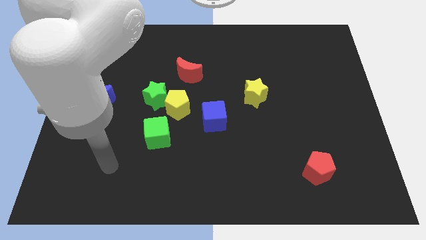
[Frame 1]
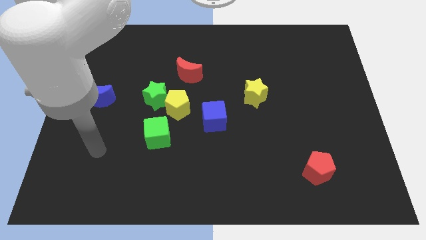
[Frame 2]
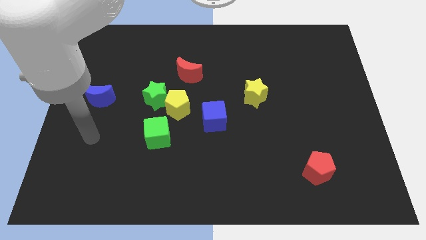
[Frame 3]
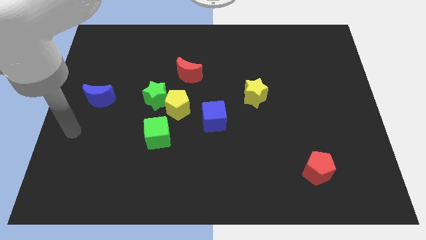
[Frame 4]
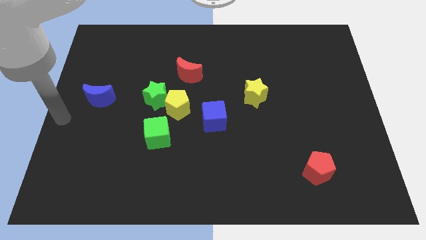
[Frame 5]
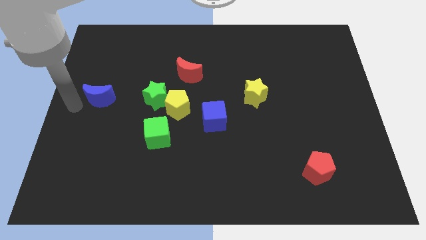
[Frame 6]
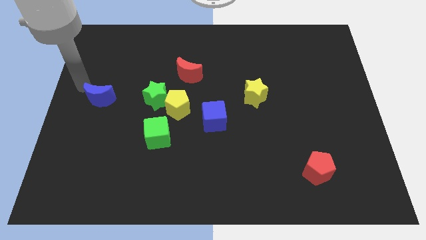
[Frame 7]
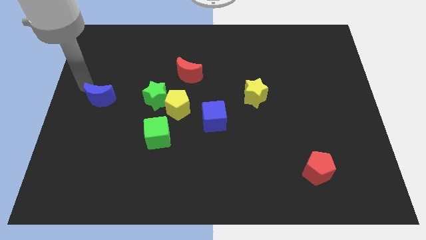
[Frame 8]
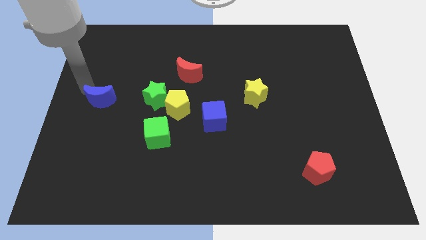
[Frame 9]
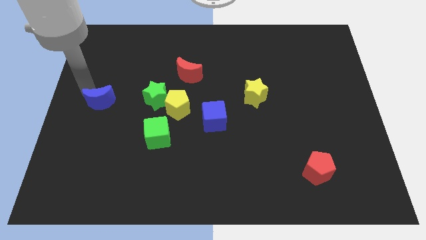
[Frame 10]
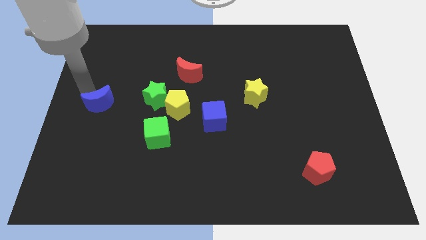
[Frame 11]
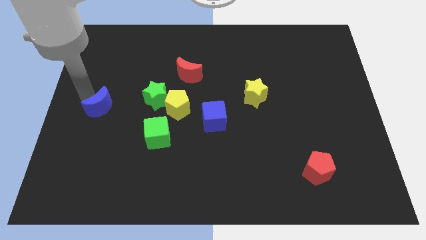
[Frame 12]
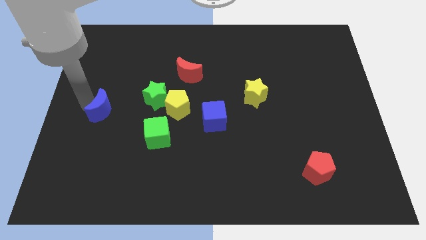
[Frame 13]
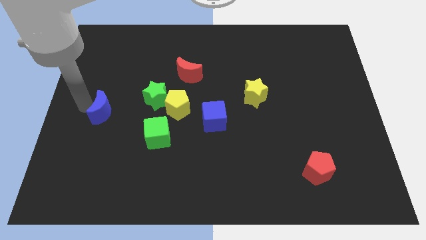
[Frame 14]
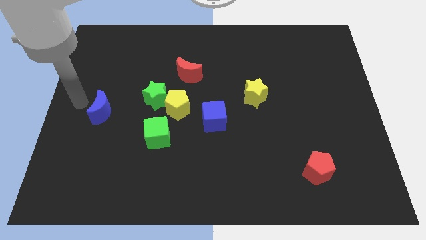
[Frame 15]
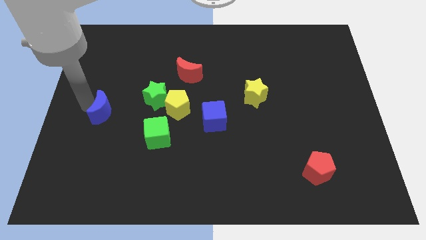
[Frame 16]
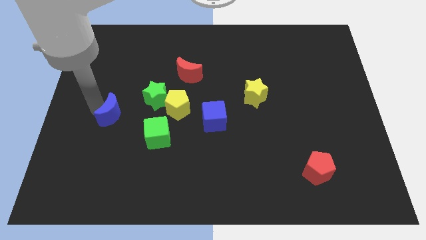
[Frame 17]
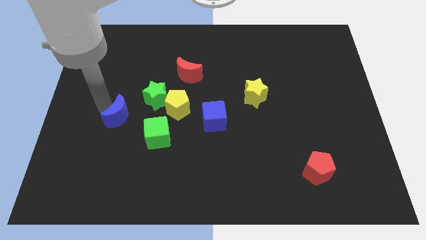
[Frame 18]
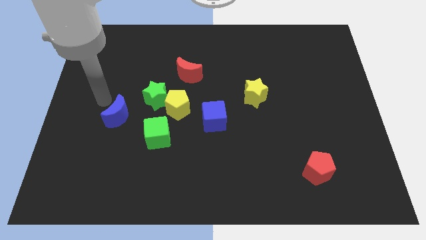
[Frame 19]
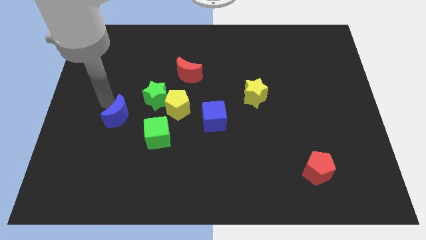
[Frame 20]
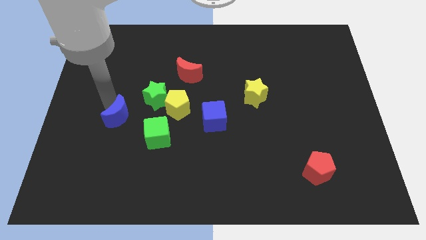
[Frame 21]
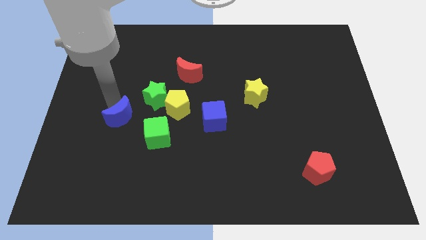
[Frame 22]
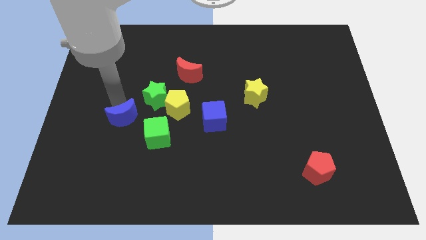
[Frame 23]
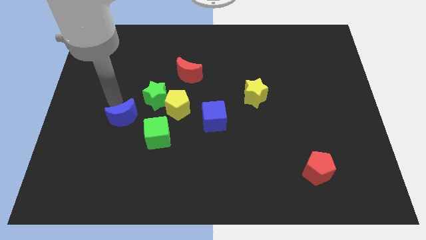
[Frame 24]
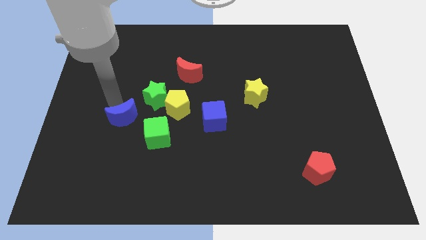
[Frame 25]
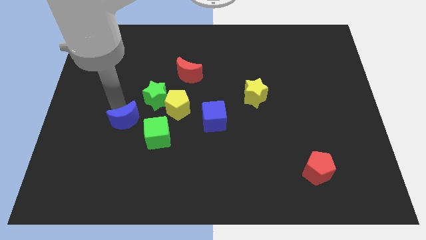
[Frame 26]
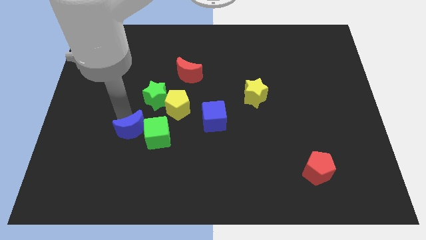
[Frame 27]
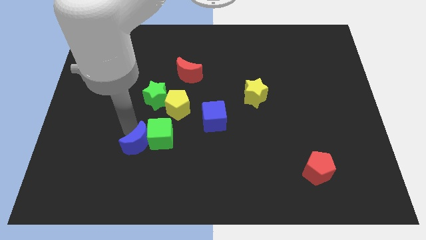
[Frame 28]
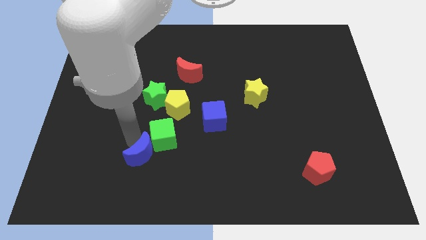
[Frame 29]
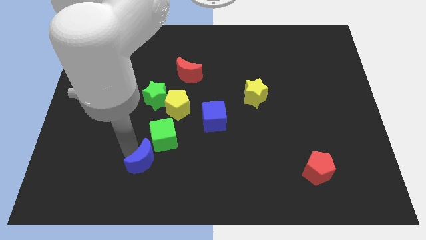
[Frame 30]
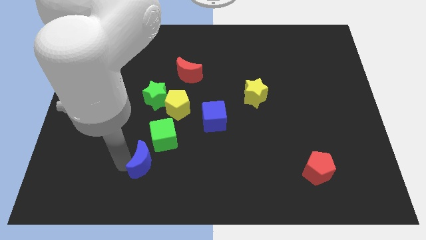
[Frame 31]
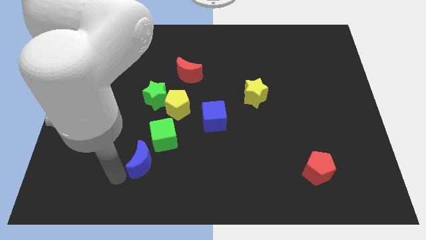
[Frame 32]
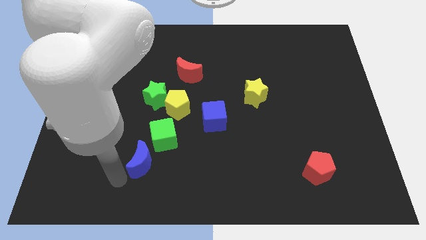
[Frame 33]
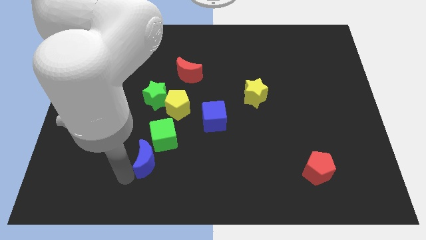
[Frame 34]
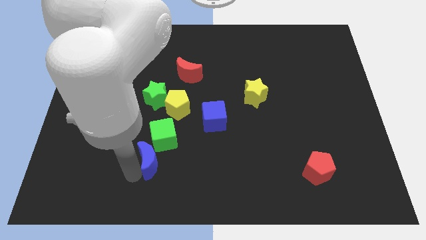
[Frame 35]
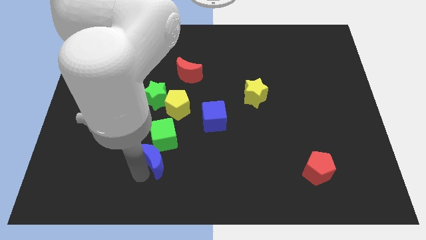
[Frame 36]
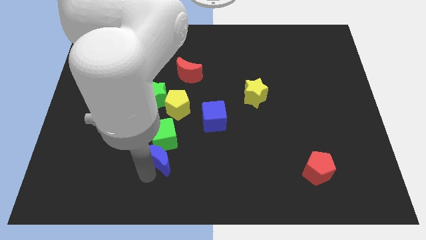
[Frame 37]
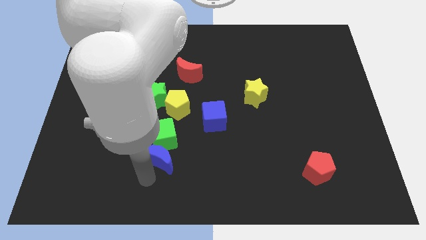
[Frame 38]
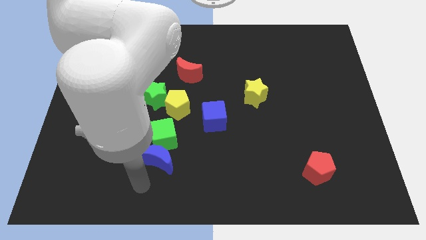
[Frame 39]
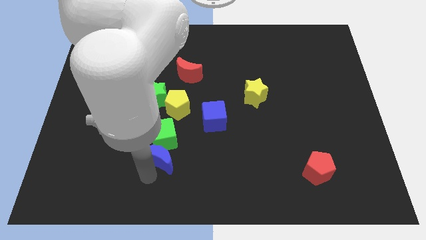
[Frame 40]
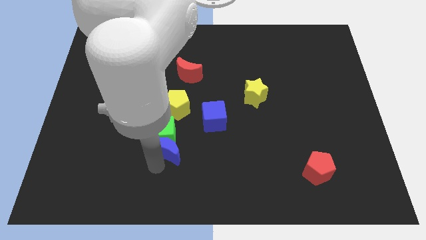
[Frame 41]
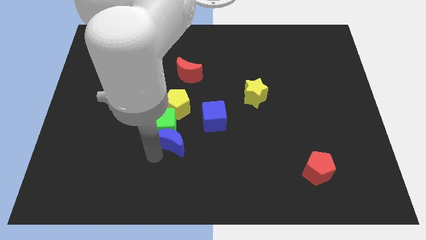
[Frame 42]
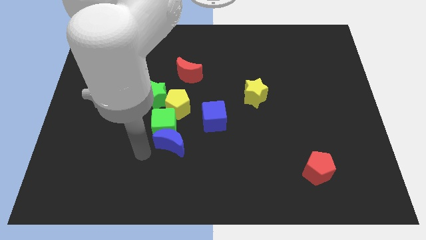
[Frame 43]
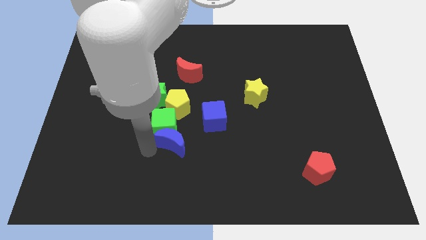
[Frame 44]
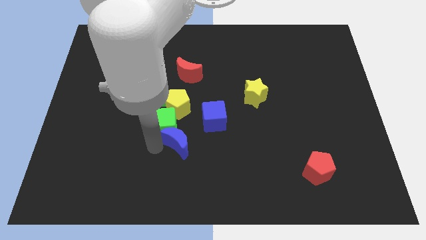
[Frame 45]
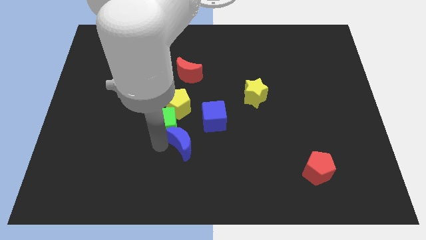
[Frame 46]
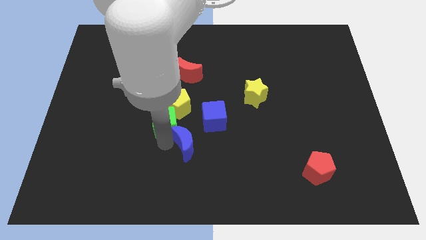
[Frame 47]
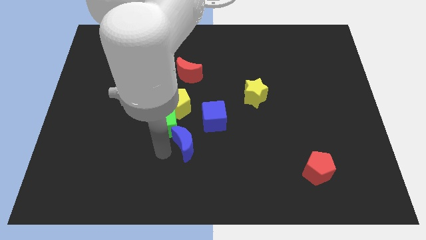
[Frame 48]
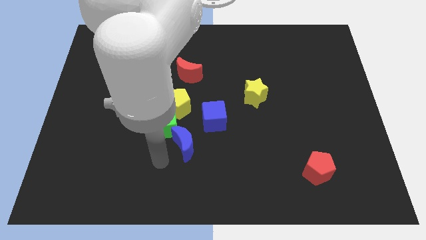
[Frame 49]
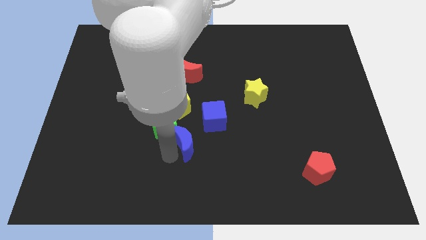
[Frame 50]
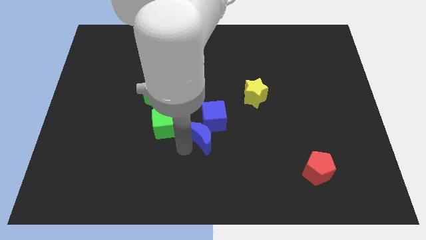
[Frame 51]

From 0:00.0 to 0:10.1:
put the blue moon towards the blue cube

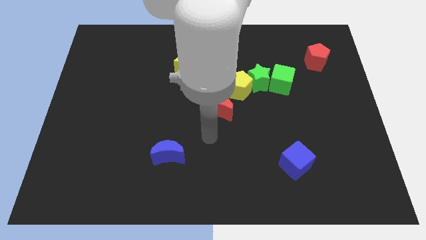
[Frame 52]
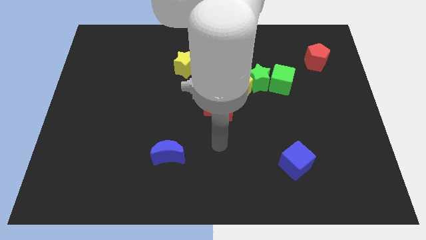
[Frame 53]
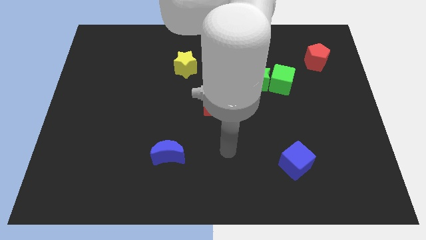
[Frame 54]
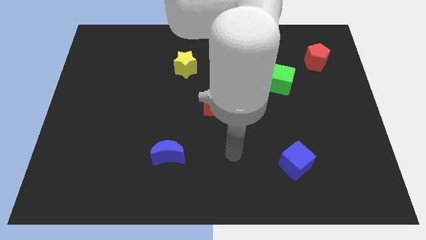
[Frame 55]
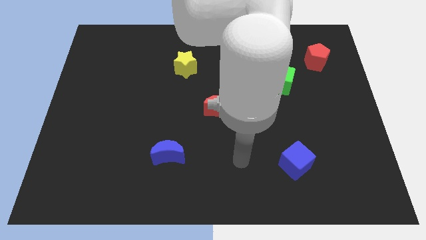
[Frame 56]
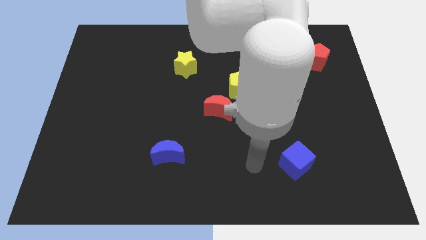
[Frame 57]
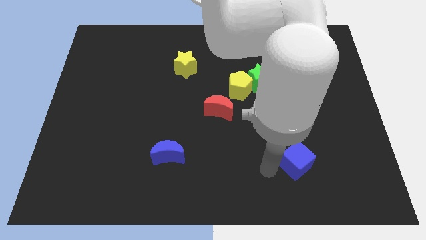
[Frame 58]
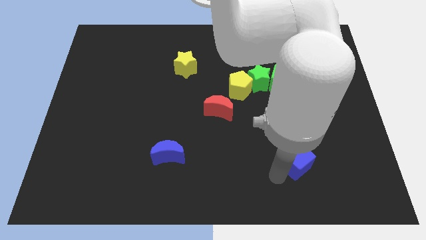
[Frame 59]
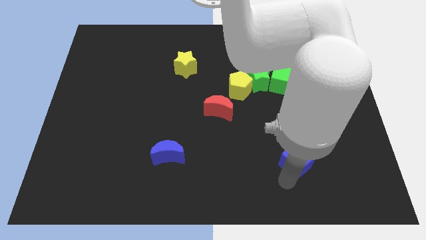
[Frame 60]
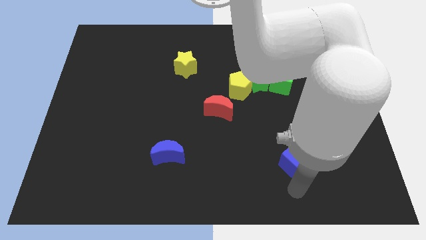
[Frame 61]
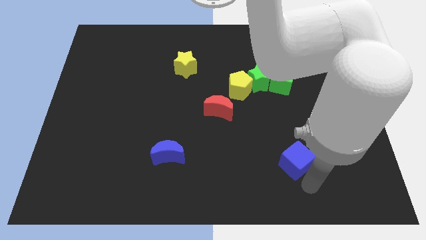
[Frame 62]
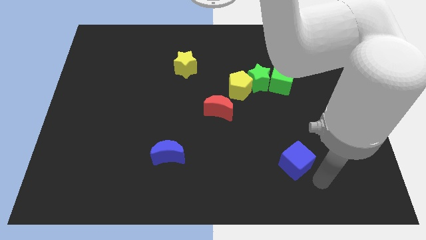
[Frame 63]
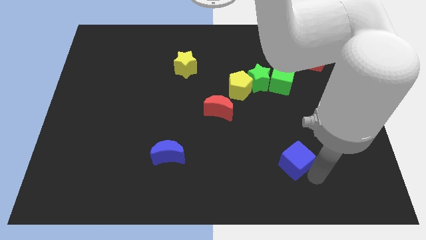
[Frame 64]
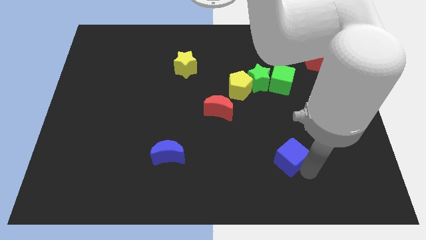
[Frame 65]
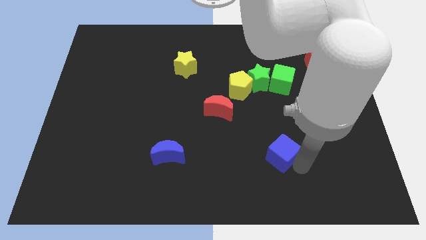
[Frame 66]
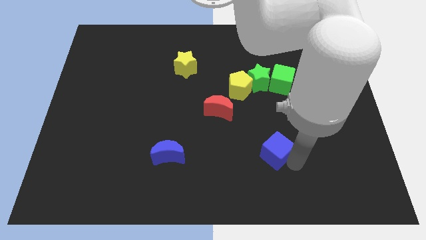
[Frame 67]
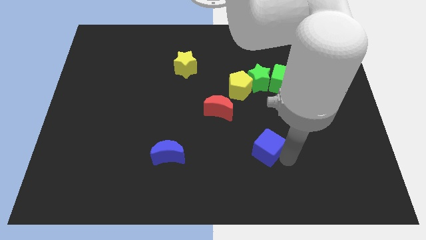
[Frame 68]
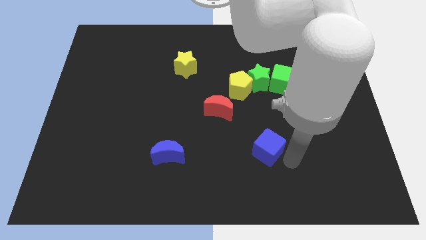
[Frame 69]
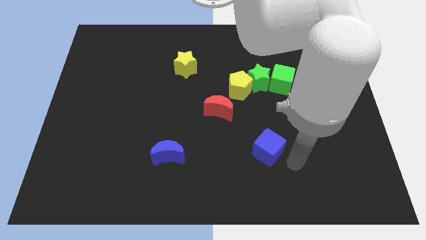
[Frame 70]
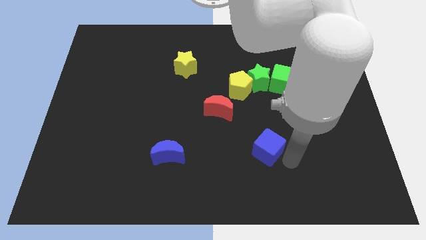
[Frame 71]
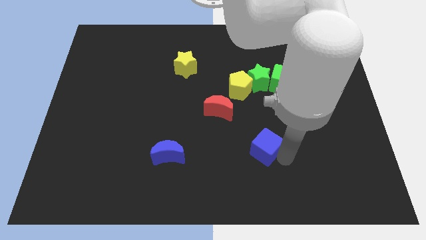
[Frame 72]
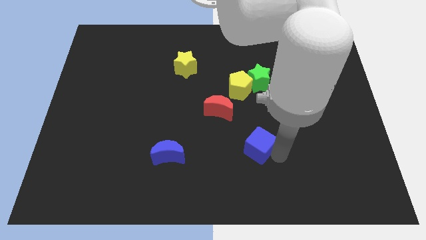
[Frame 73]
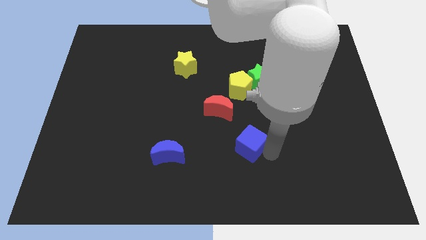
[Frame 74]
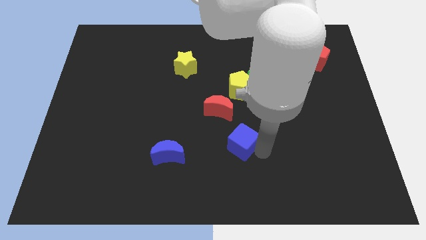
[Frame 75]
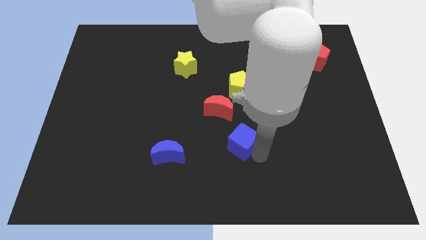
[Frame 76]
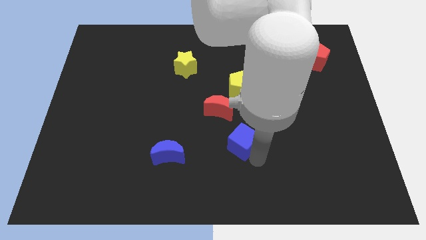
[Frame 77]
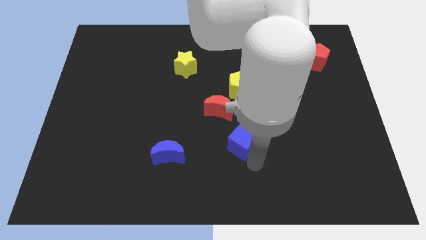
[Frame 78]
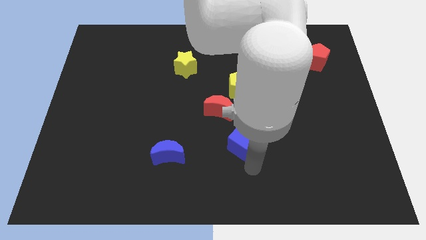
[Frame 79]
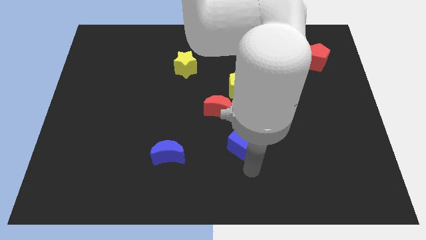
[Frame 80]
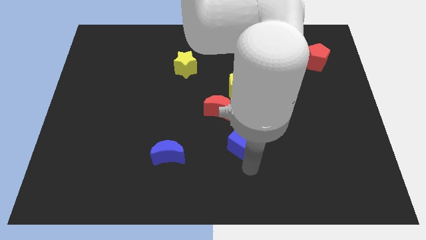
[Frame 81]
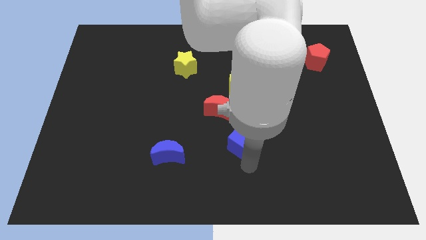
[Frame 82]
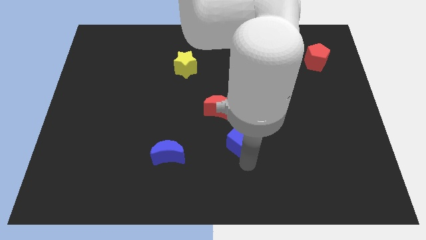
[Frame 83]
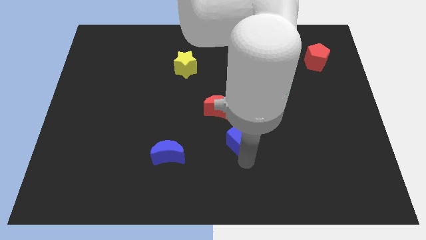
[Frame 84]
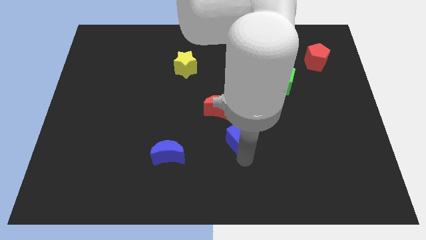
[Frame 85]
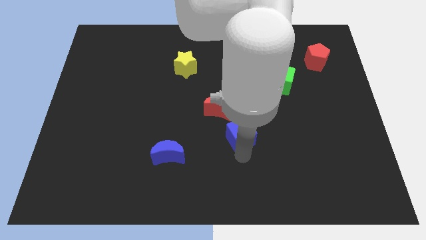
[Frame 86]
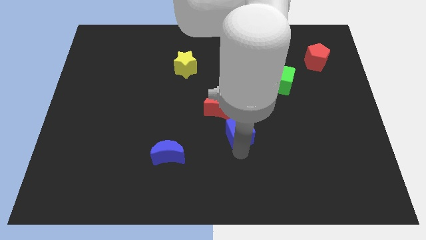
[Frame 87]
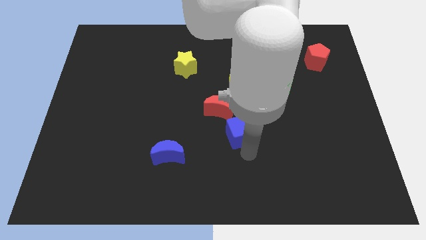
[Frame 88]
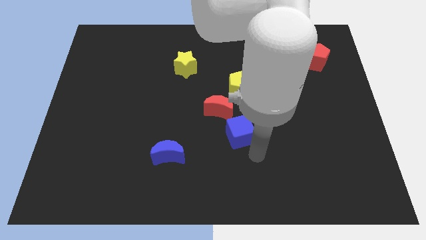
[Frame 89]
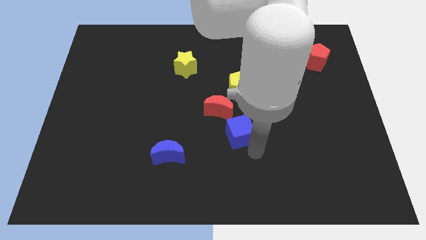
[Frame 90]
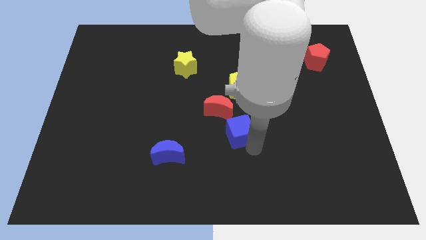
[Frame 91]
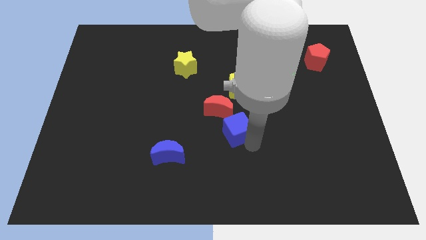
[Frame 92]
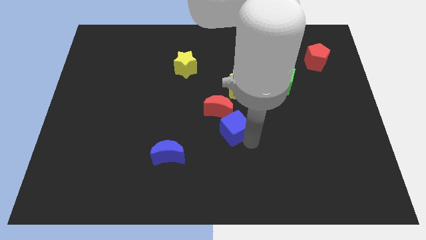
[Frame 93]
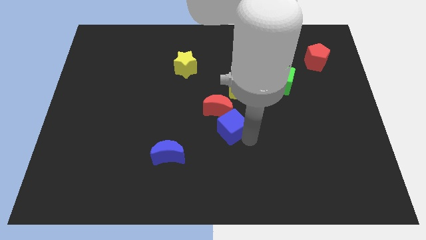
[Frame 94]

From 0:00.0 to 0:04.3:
push the blue cube next to the red moon
